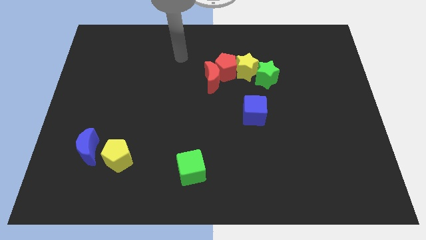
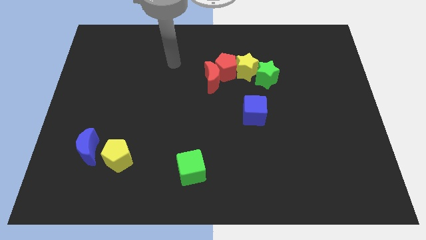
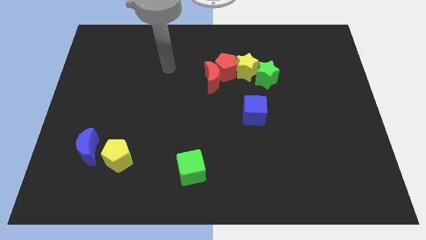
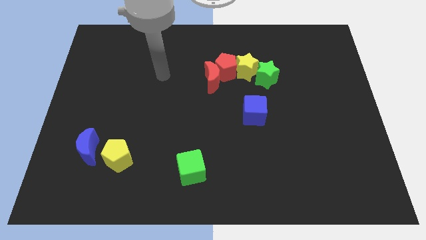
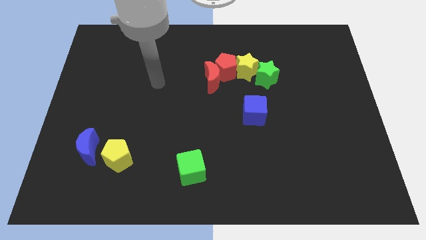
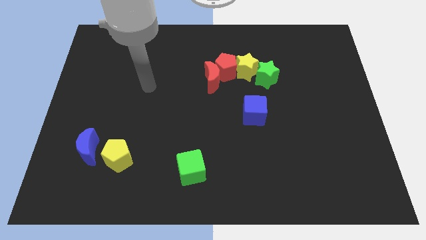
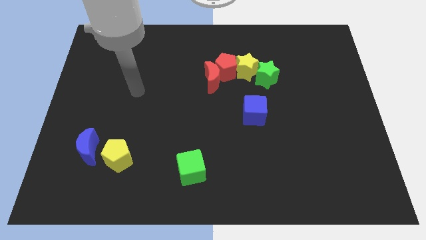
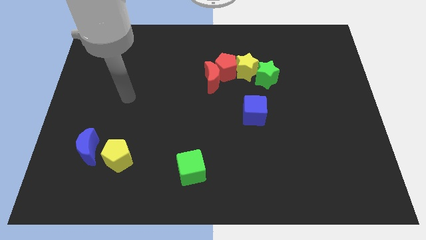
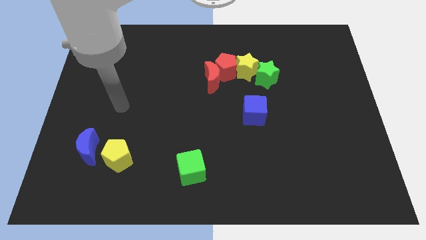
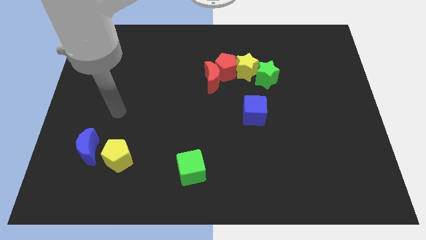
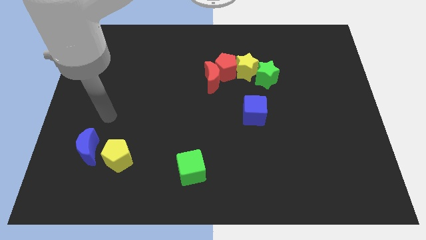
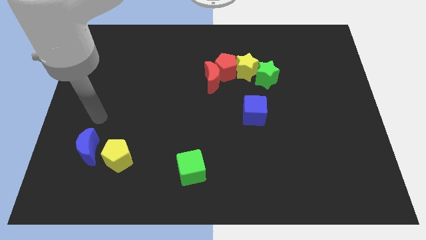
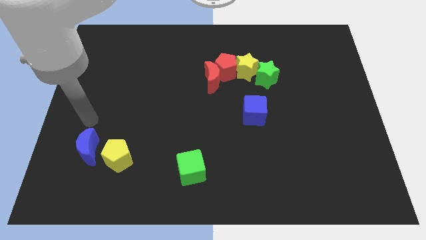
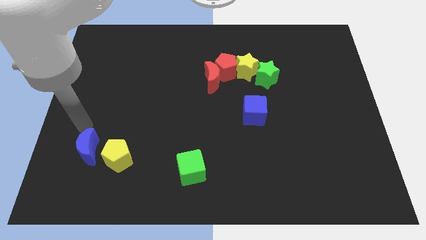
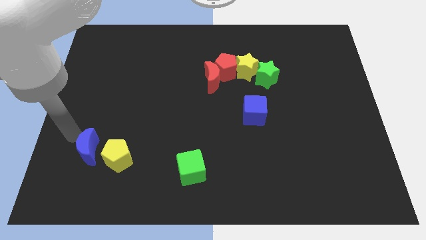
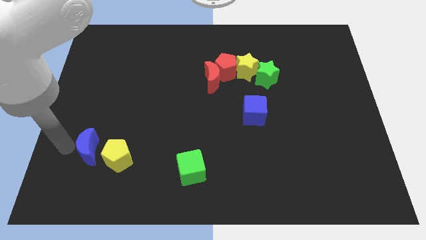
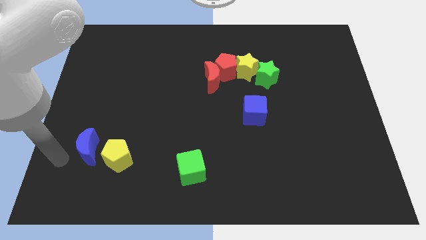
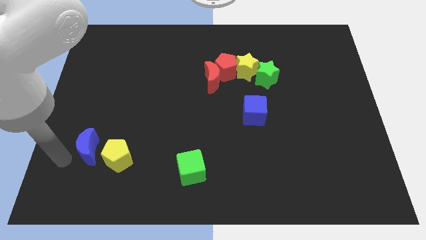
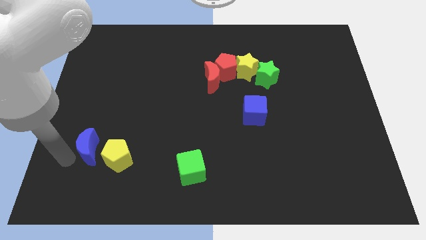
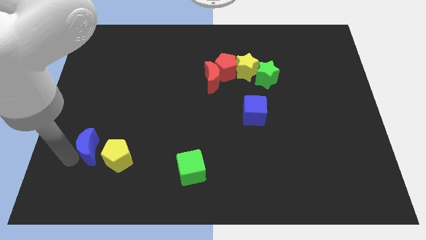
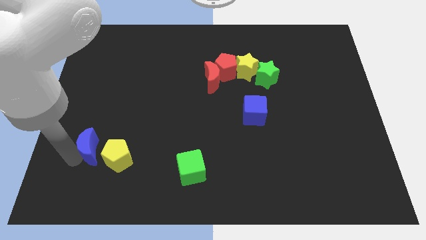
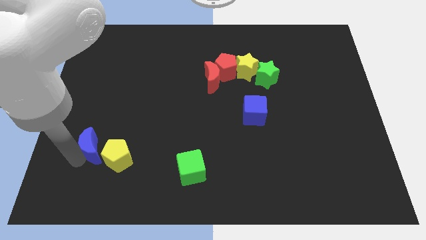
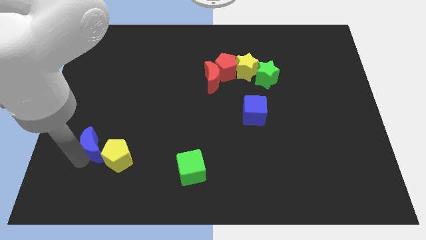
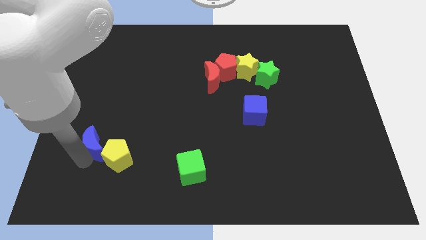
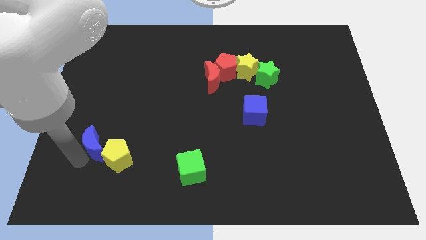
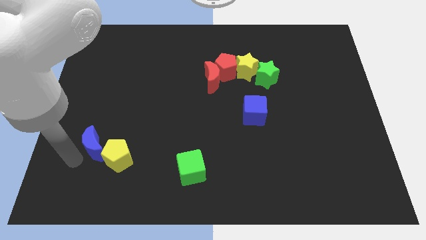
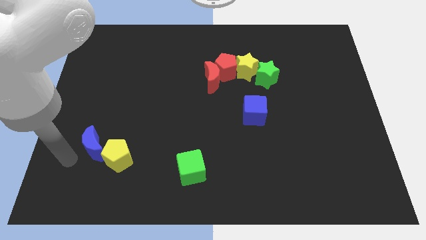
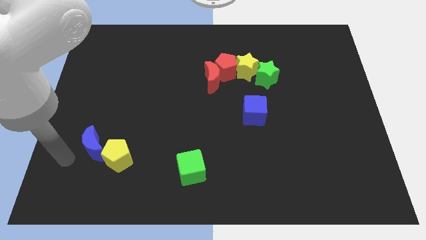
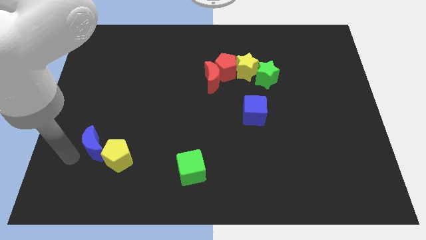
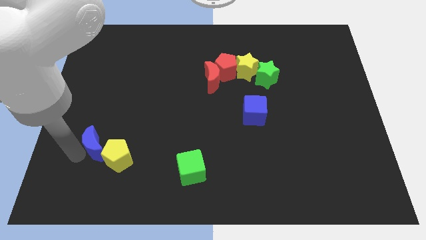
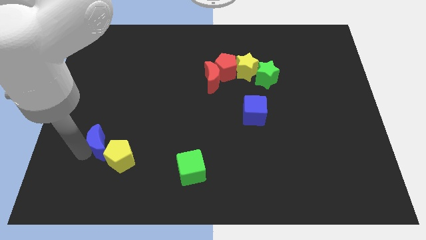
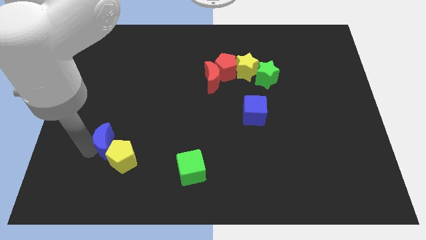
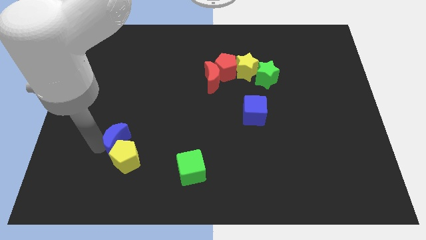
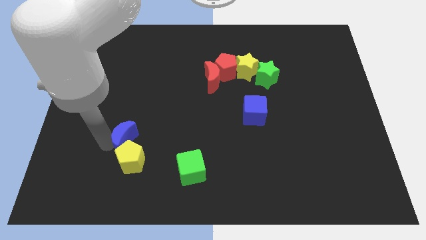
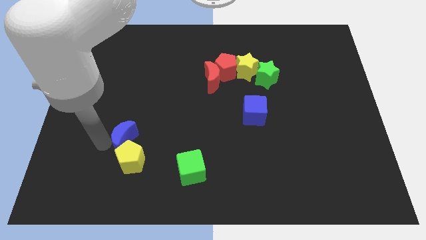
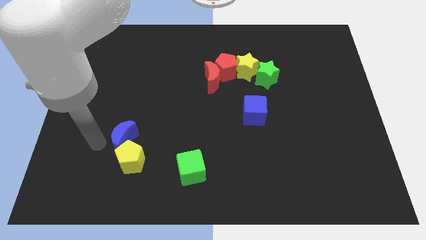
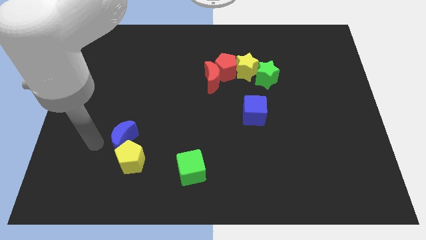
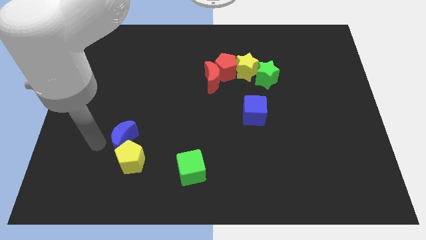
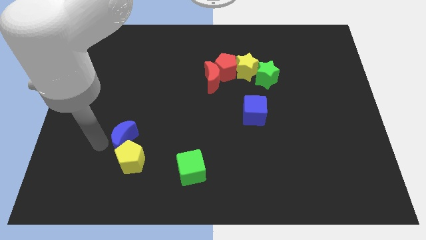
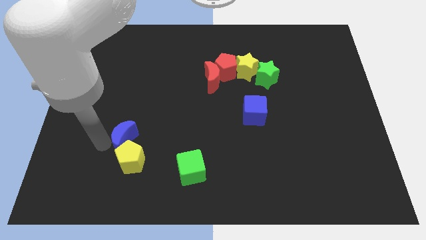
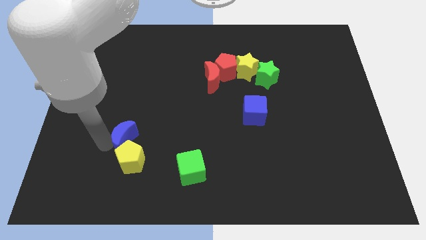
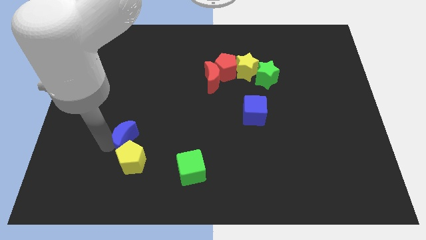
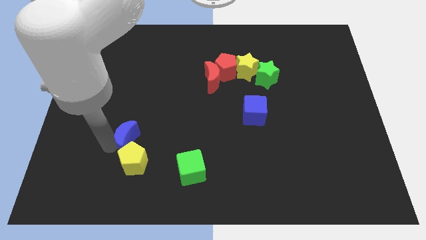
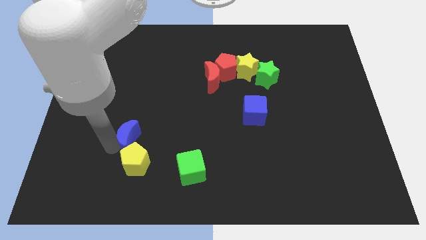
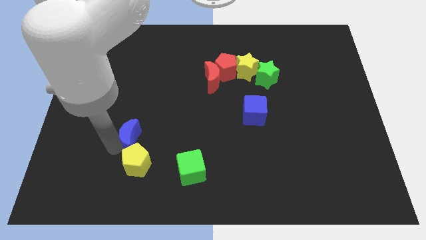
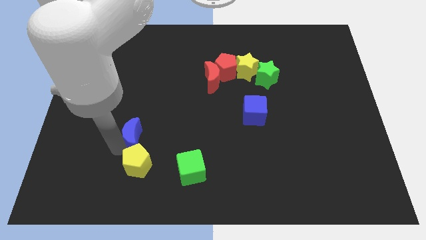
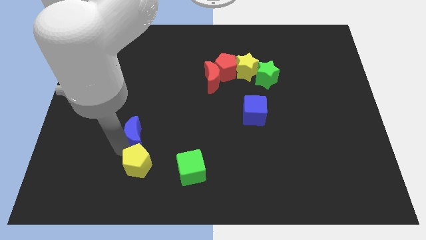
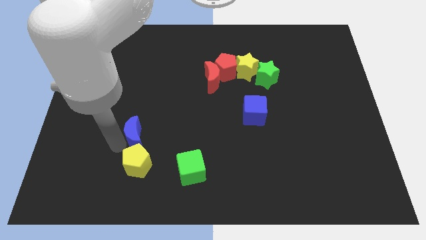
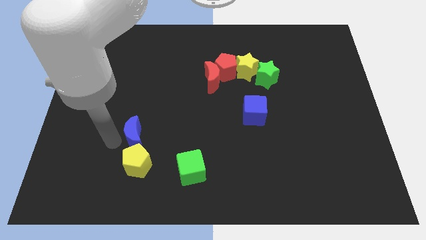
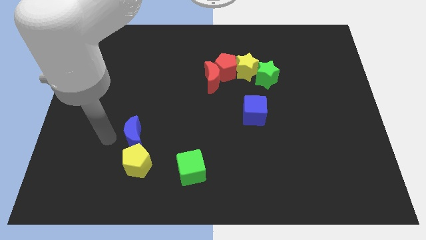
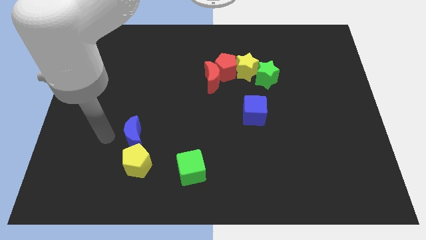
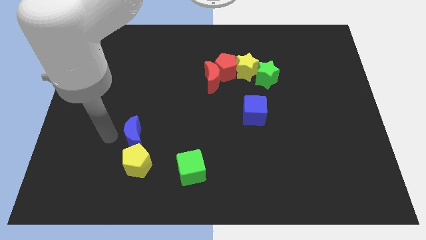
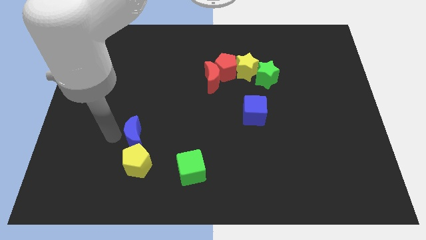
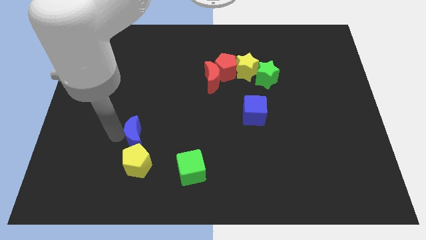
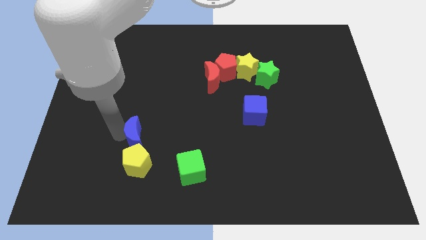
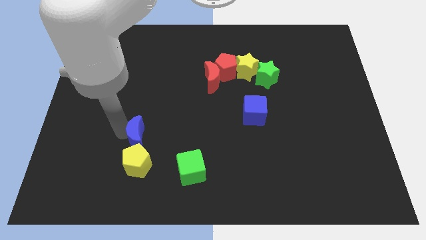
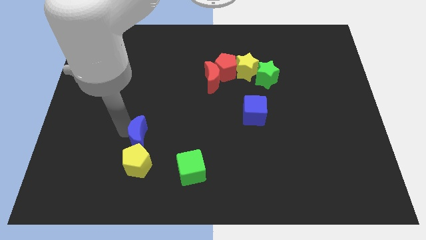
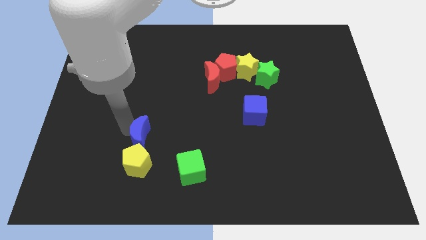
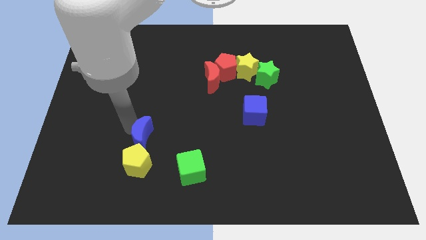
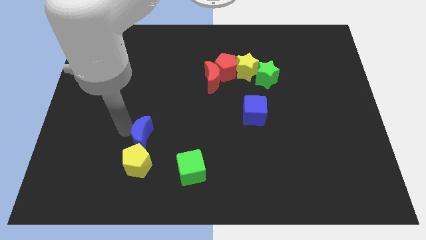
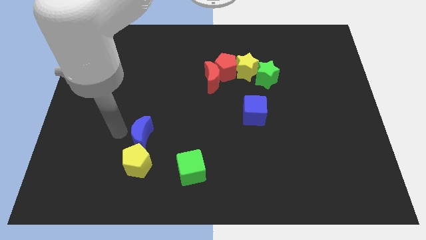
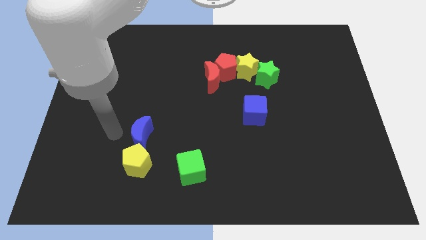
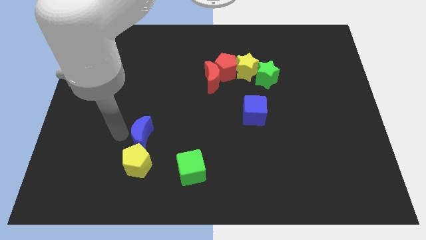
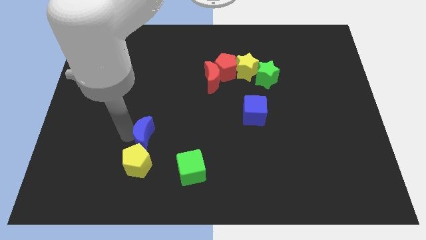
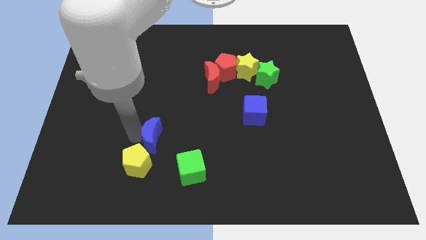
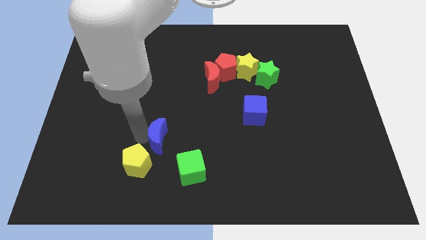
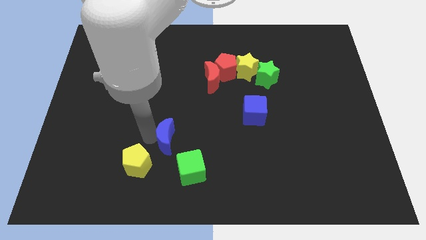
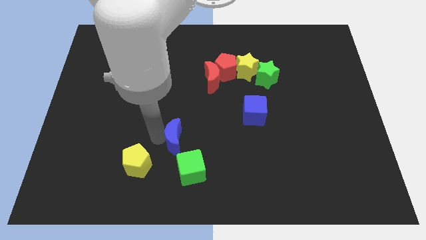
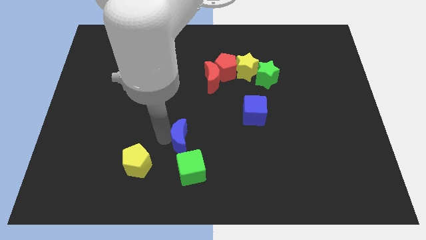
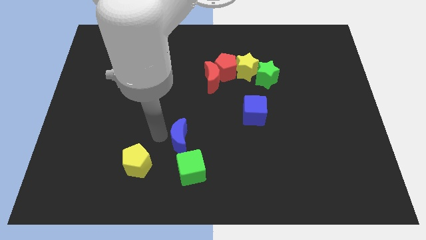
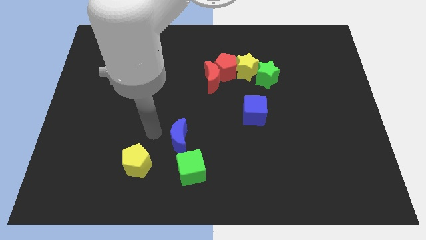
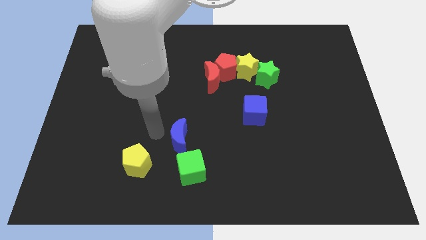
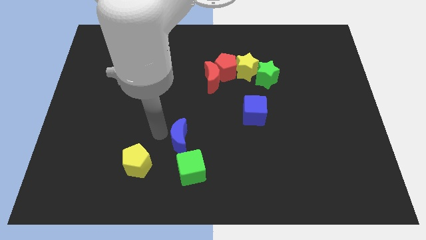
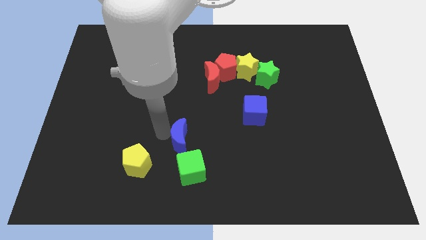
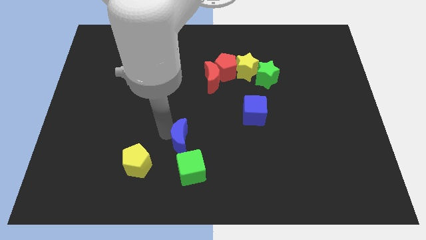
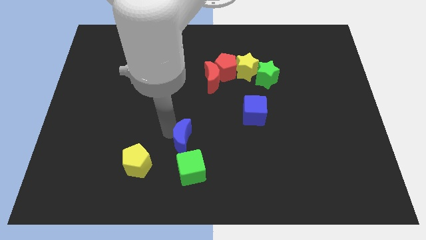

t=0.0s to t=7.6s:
move the blue moon right

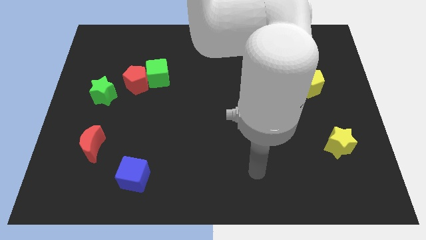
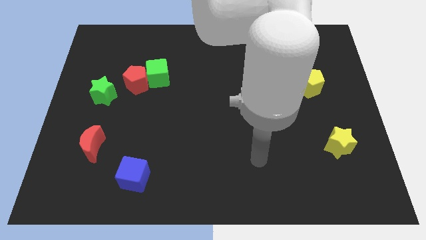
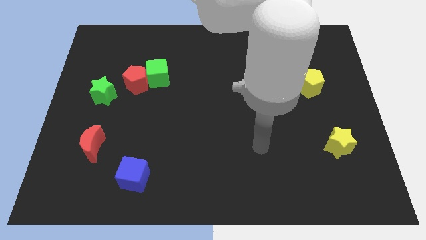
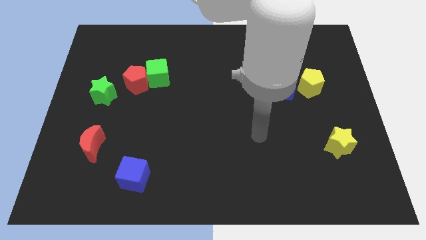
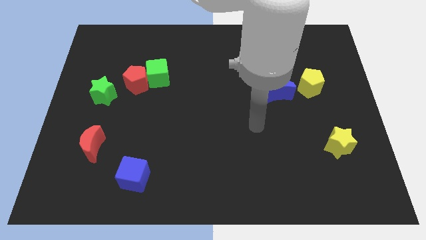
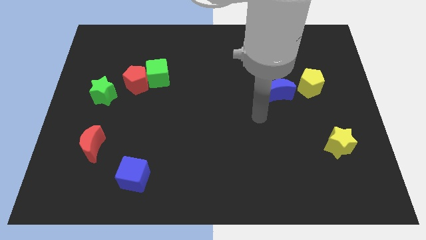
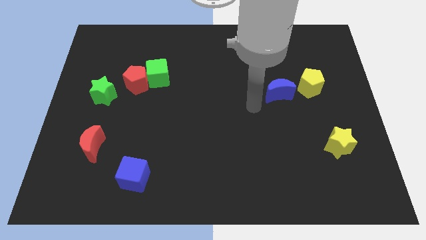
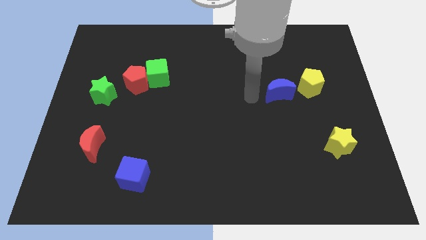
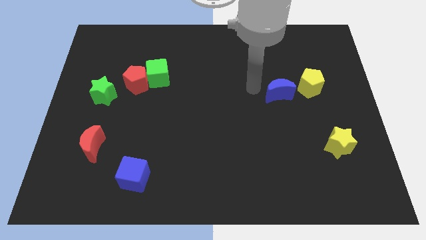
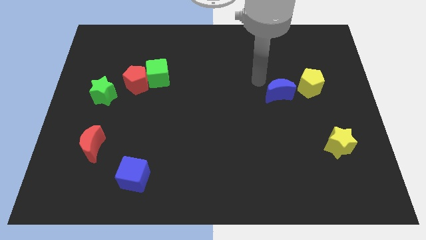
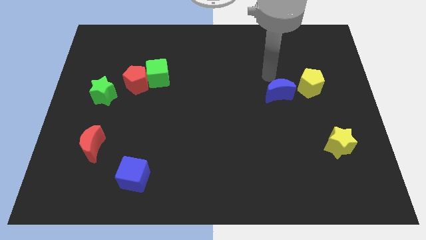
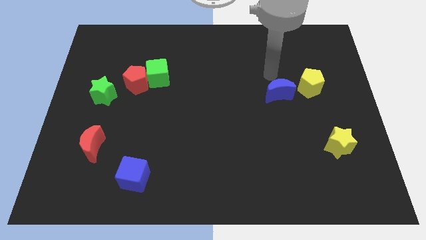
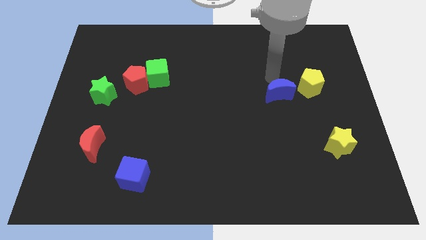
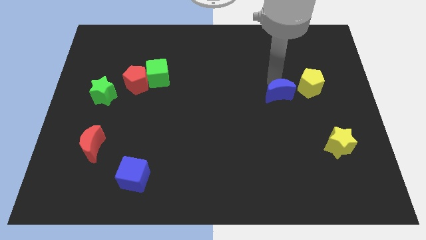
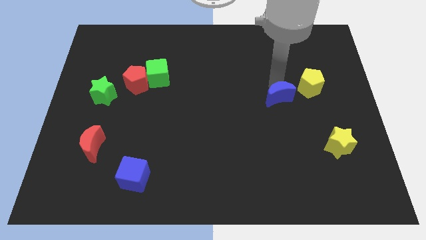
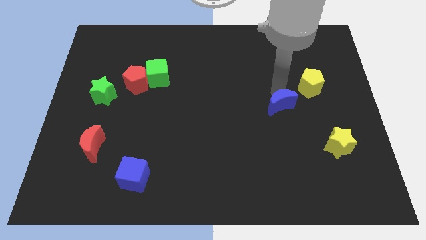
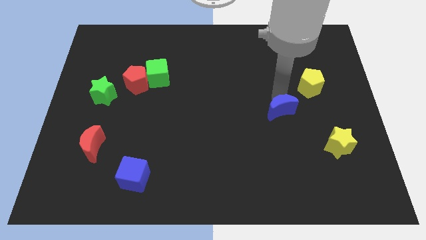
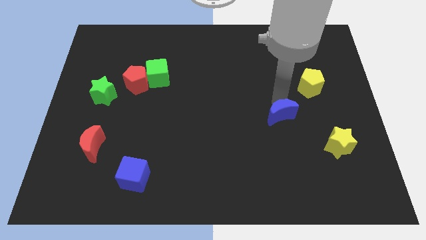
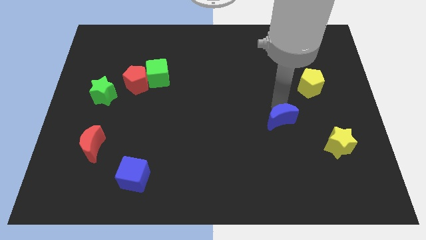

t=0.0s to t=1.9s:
push the blue moon down a little
